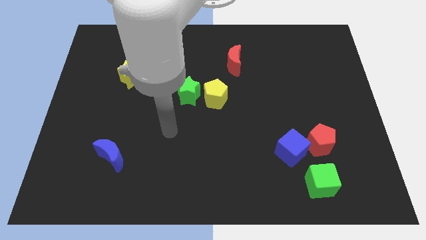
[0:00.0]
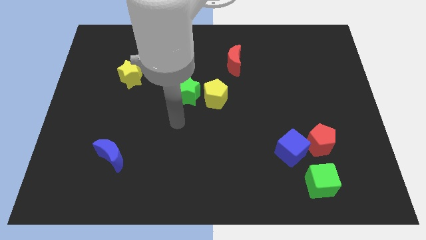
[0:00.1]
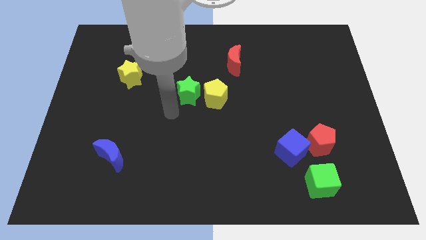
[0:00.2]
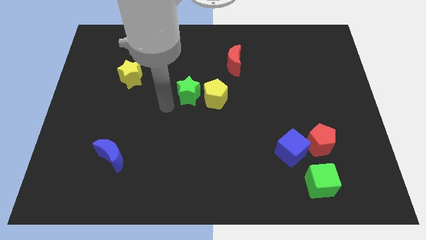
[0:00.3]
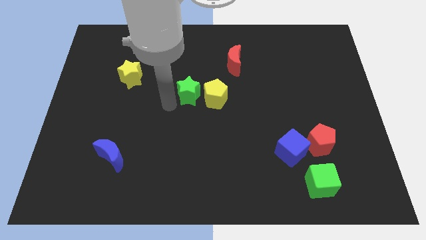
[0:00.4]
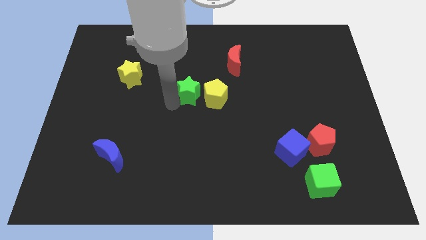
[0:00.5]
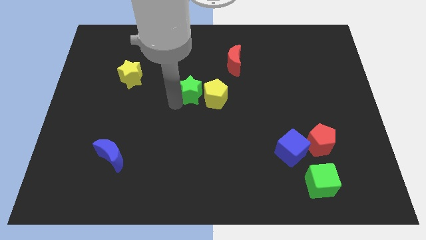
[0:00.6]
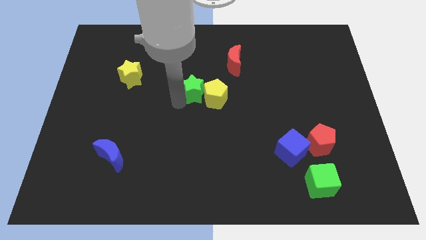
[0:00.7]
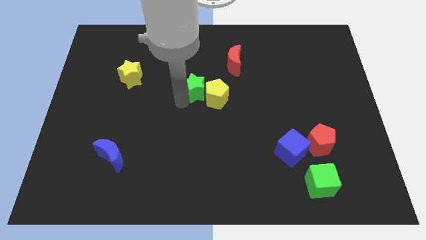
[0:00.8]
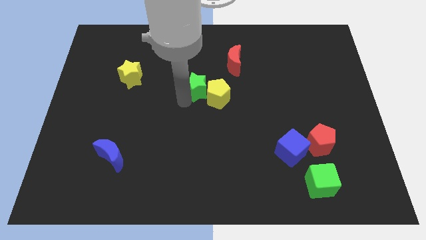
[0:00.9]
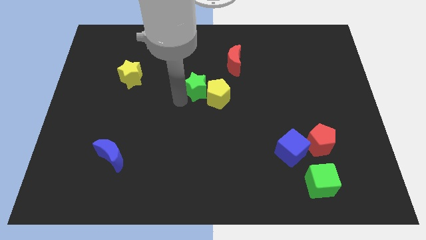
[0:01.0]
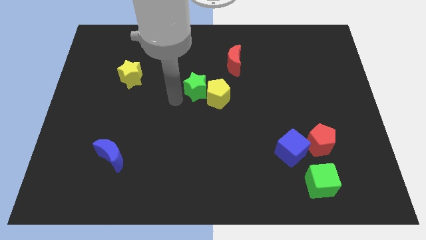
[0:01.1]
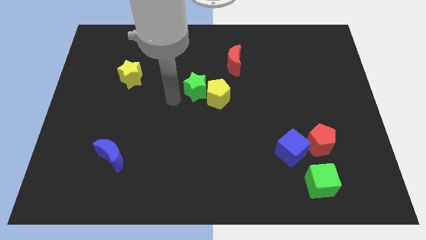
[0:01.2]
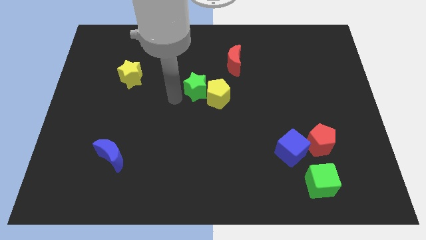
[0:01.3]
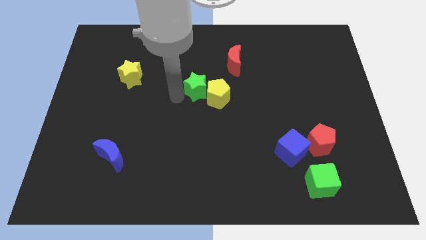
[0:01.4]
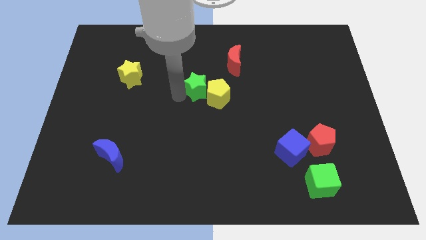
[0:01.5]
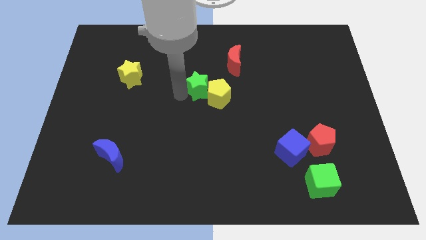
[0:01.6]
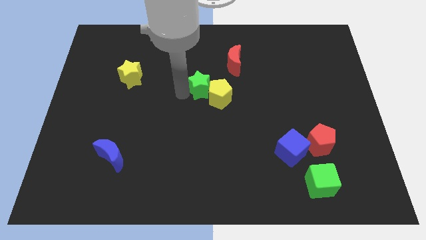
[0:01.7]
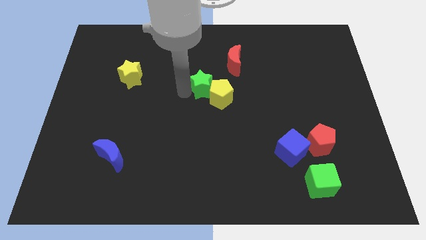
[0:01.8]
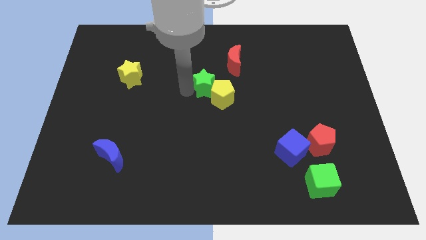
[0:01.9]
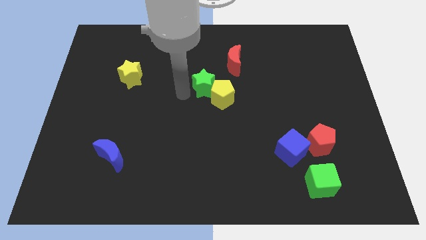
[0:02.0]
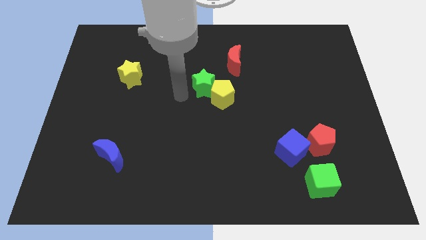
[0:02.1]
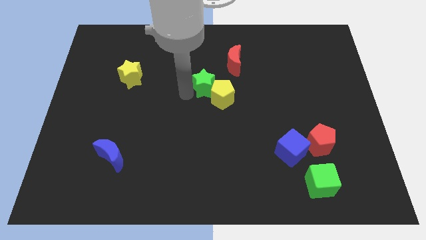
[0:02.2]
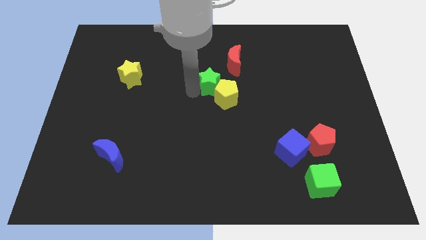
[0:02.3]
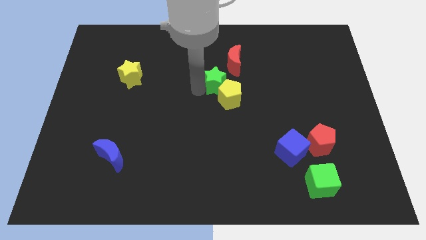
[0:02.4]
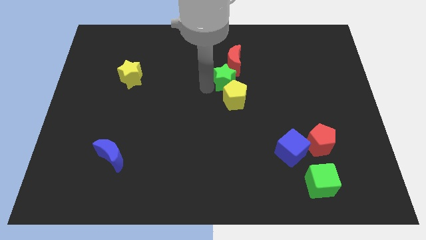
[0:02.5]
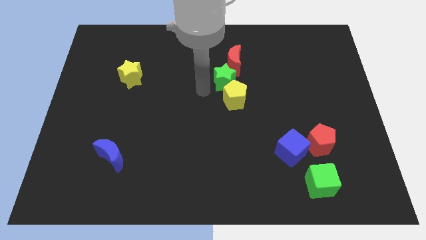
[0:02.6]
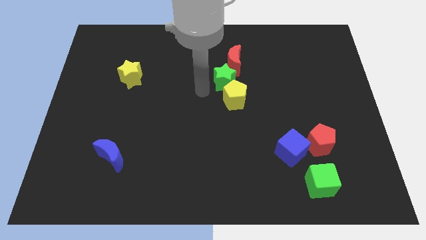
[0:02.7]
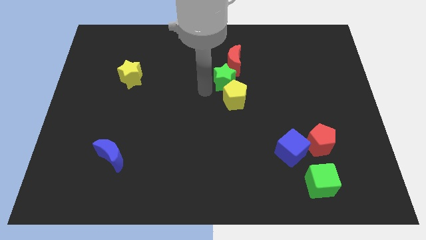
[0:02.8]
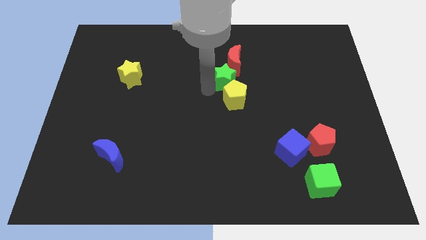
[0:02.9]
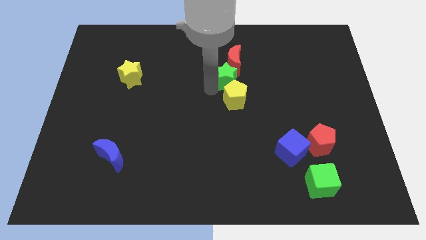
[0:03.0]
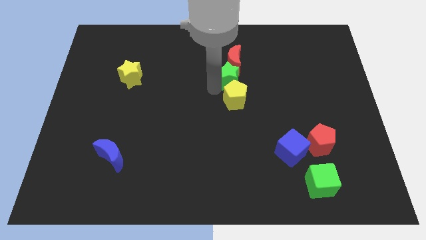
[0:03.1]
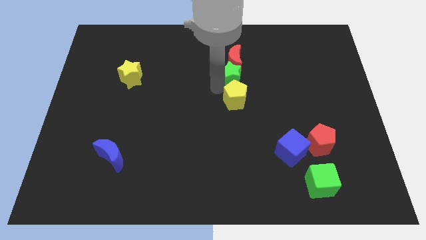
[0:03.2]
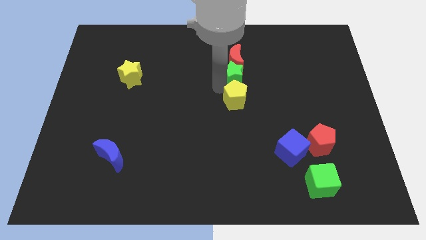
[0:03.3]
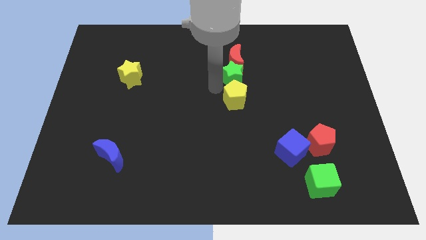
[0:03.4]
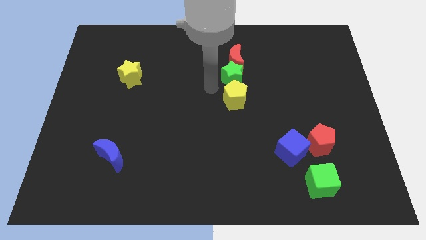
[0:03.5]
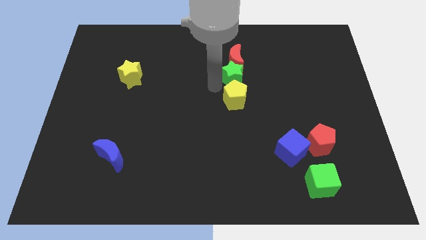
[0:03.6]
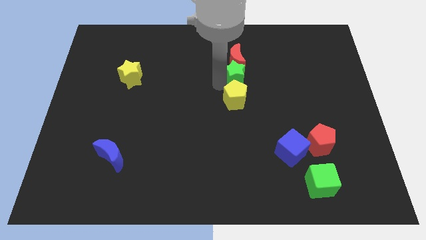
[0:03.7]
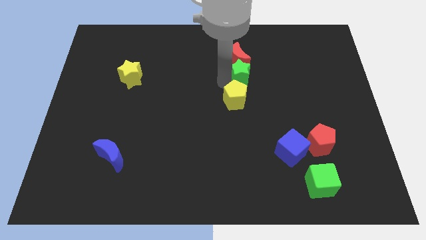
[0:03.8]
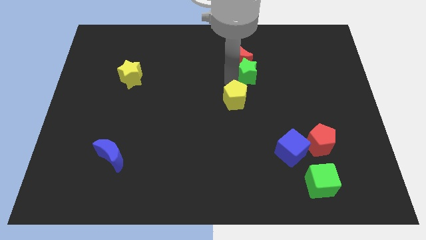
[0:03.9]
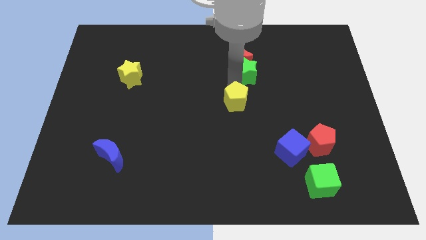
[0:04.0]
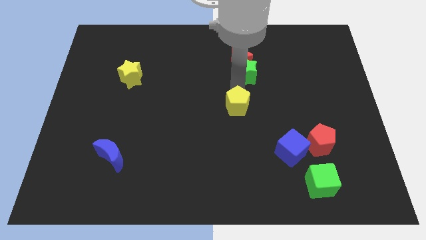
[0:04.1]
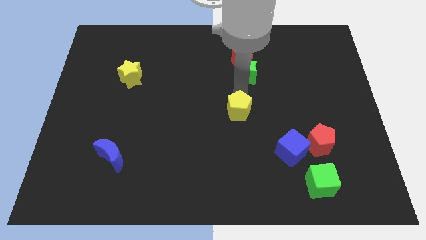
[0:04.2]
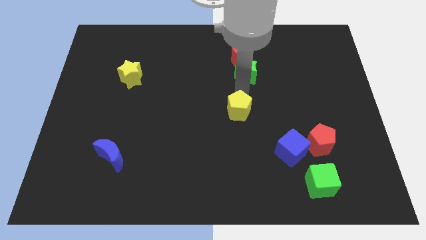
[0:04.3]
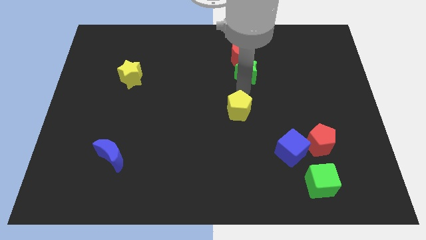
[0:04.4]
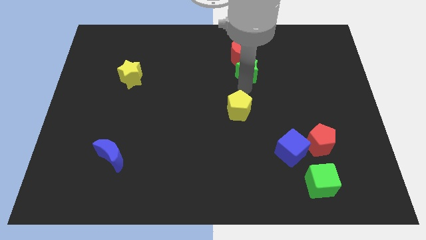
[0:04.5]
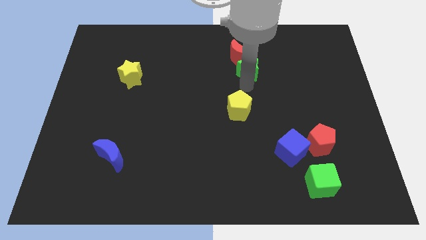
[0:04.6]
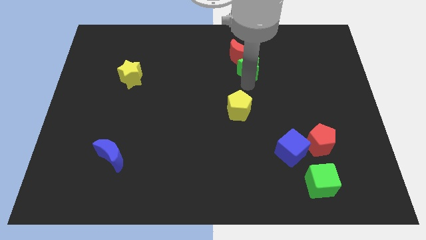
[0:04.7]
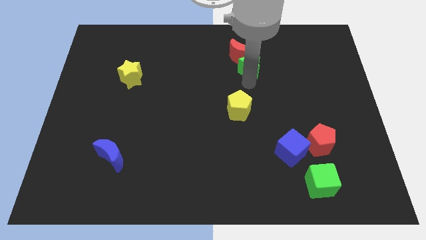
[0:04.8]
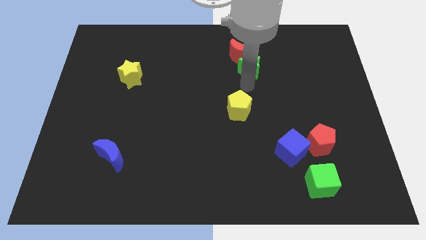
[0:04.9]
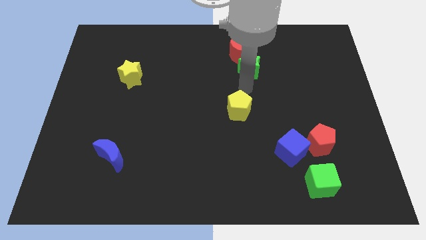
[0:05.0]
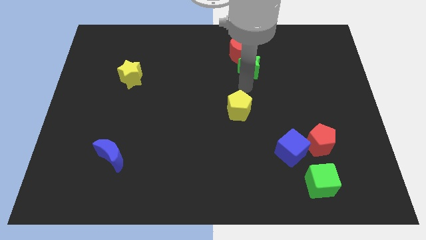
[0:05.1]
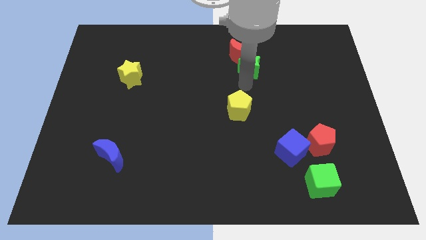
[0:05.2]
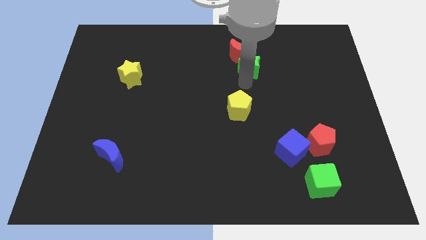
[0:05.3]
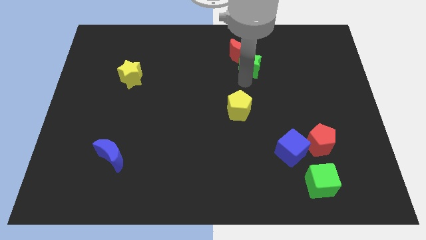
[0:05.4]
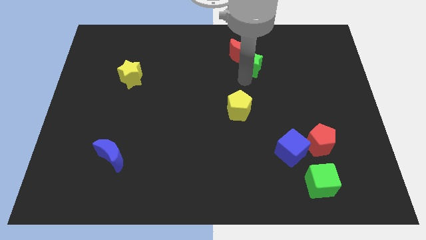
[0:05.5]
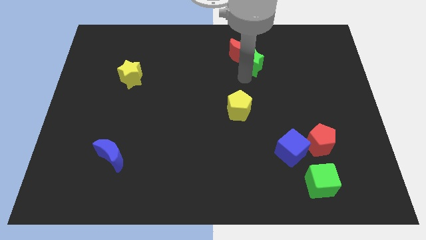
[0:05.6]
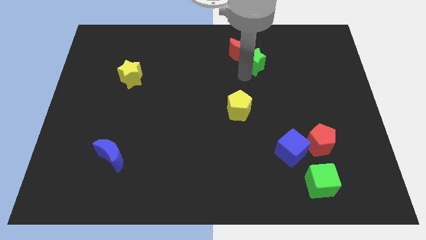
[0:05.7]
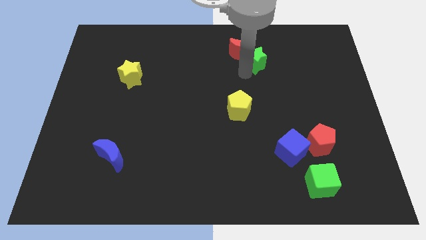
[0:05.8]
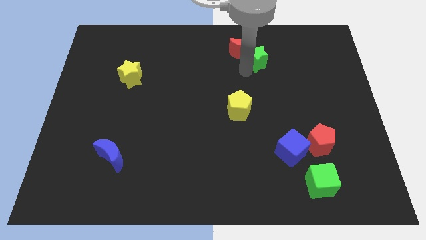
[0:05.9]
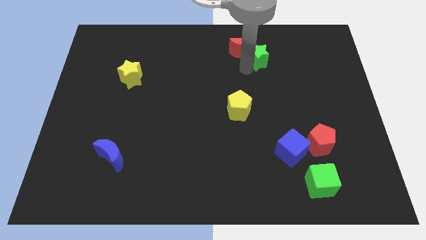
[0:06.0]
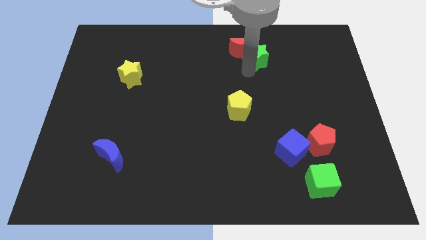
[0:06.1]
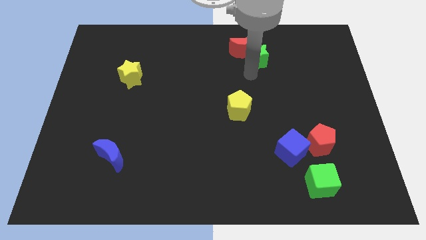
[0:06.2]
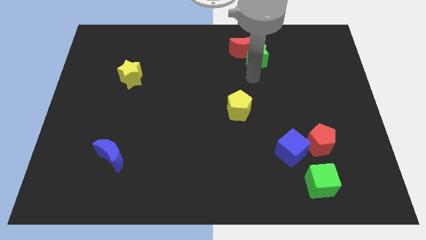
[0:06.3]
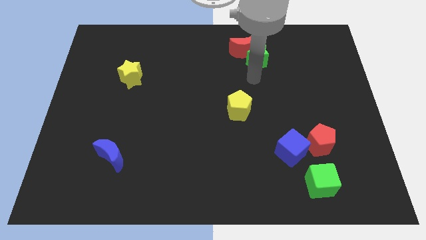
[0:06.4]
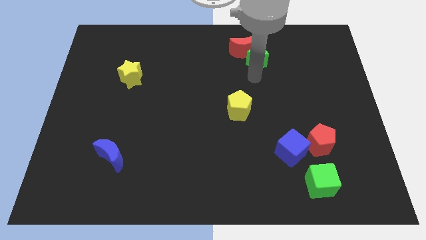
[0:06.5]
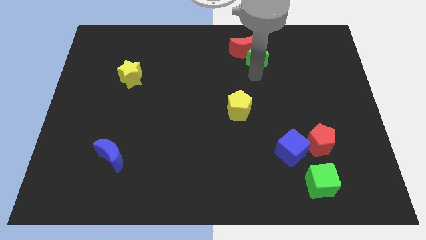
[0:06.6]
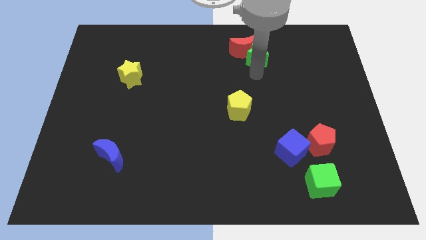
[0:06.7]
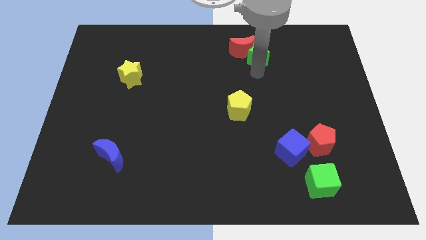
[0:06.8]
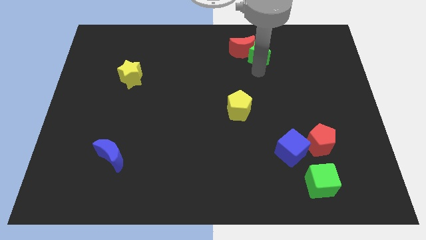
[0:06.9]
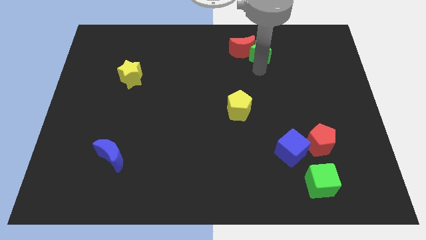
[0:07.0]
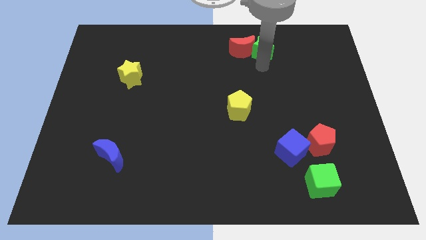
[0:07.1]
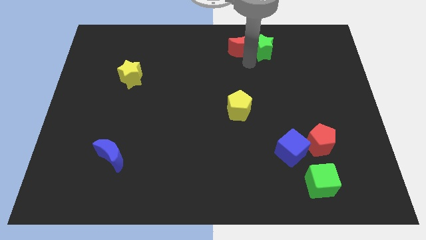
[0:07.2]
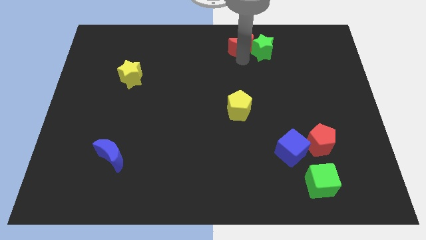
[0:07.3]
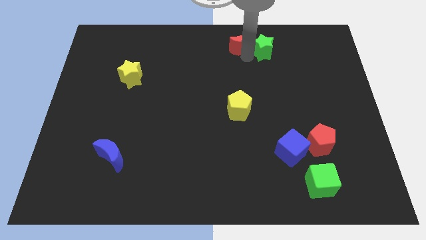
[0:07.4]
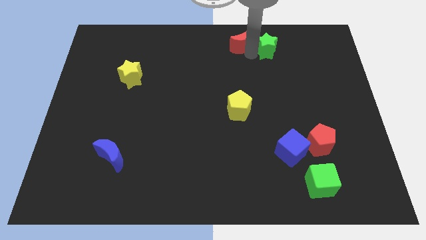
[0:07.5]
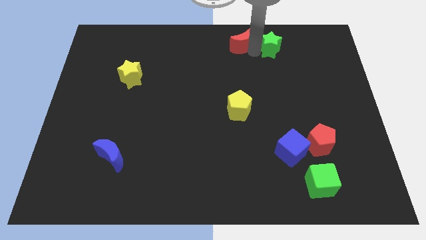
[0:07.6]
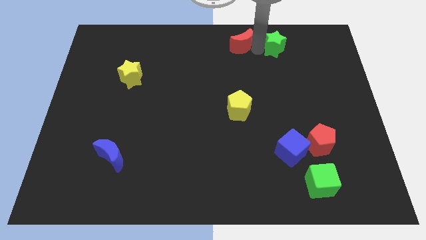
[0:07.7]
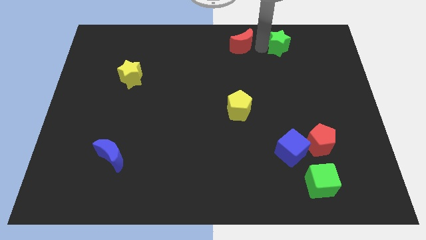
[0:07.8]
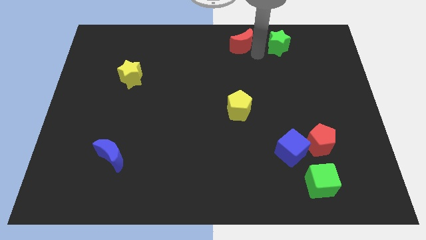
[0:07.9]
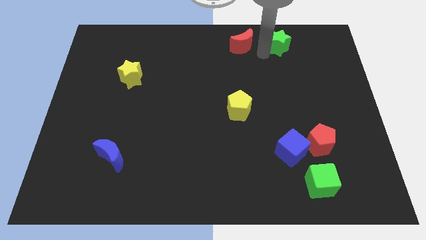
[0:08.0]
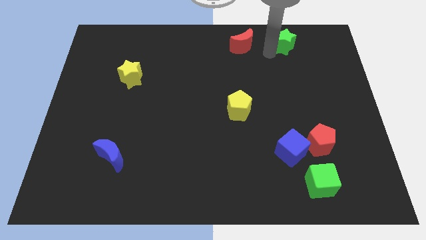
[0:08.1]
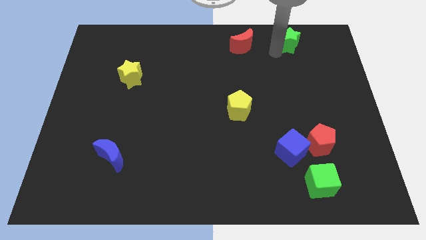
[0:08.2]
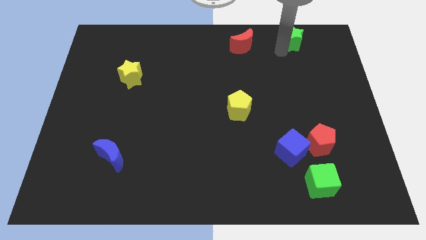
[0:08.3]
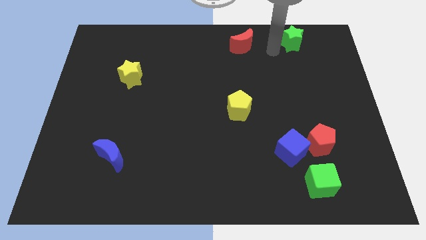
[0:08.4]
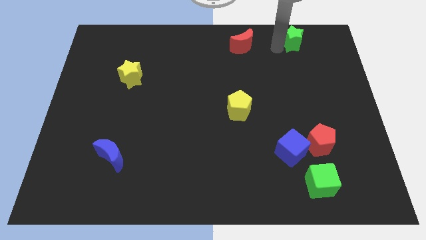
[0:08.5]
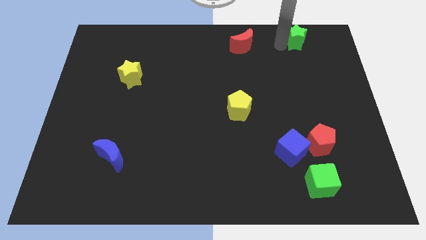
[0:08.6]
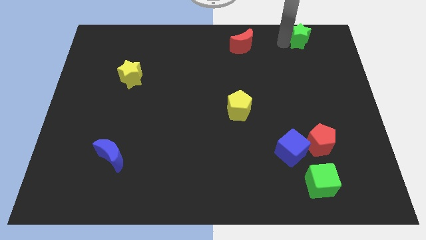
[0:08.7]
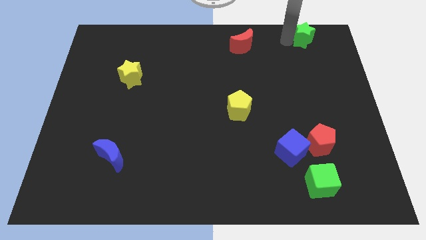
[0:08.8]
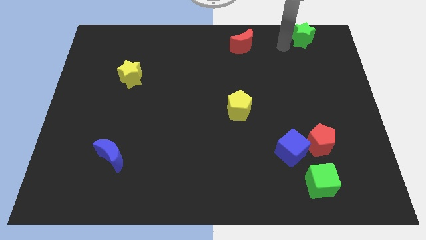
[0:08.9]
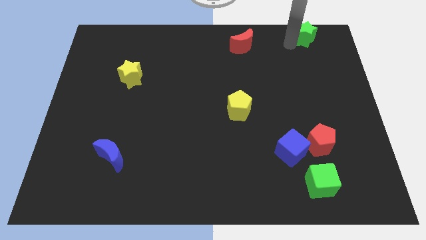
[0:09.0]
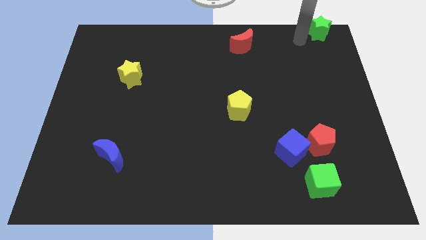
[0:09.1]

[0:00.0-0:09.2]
put the green star to the top right
